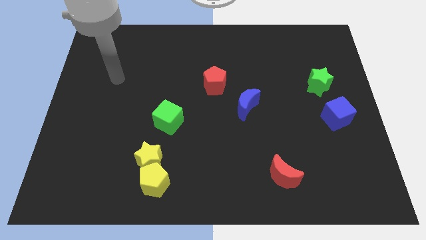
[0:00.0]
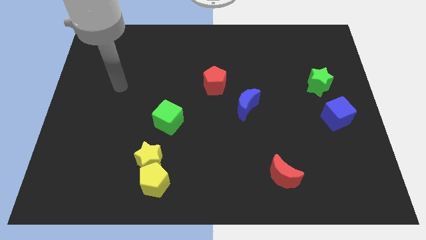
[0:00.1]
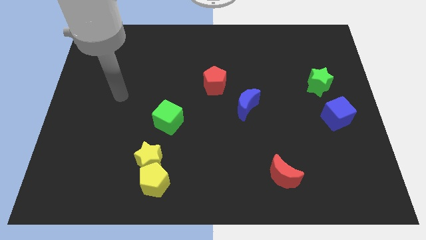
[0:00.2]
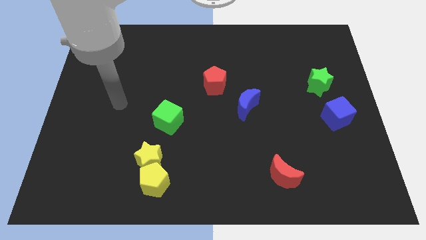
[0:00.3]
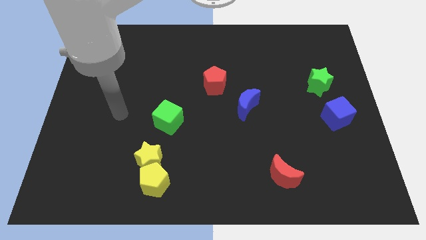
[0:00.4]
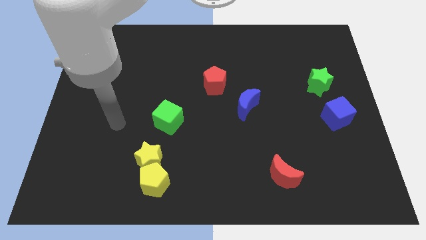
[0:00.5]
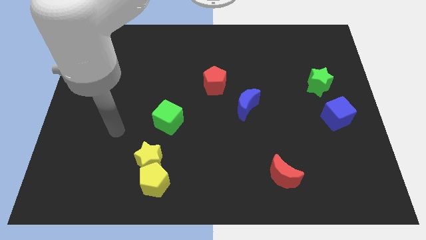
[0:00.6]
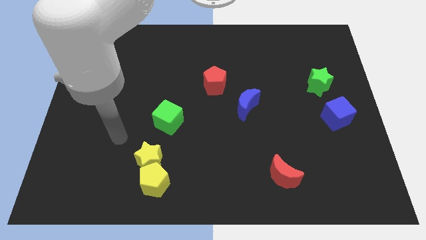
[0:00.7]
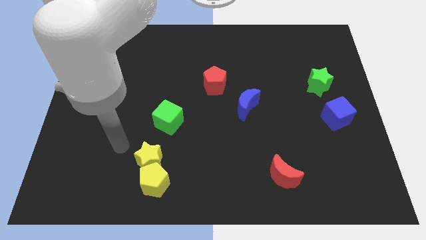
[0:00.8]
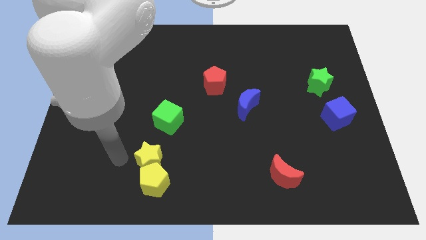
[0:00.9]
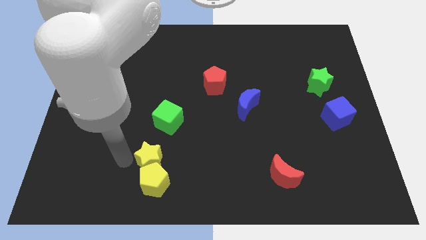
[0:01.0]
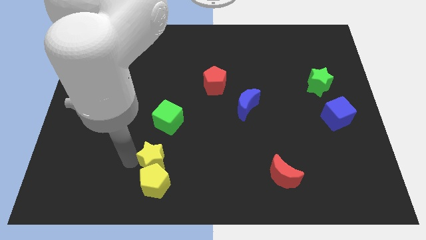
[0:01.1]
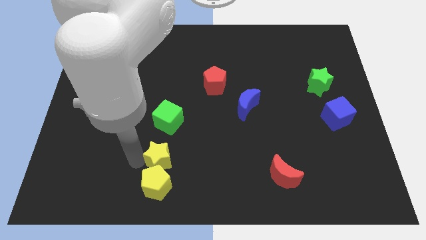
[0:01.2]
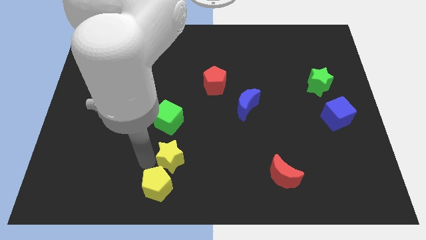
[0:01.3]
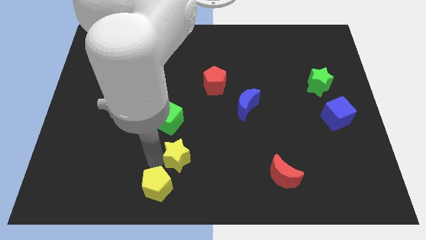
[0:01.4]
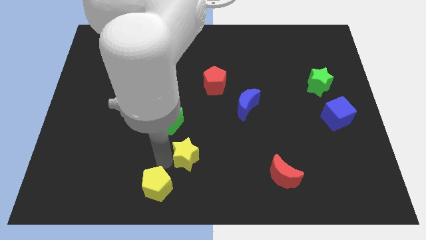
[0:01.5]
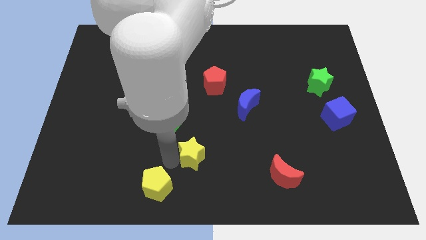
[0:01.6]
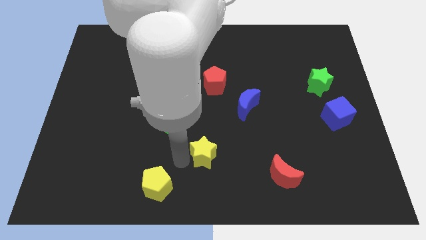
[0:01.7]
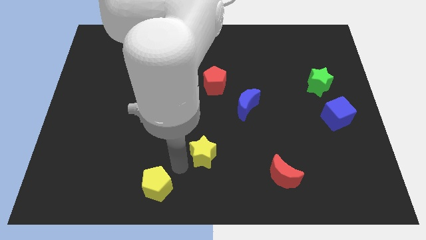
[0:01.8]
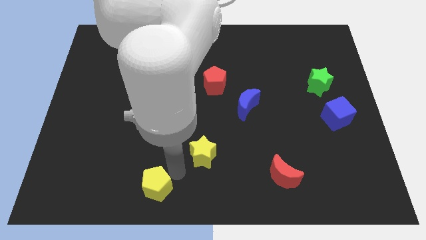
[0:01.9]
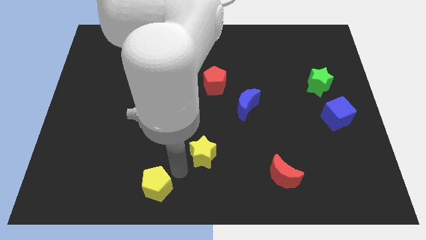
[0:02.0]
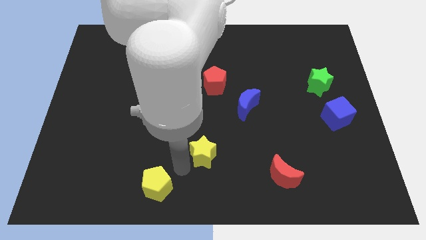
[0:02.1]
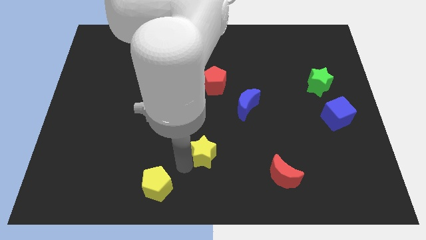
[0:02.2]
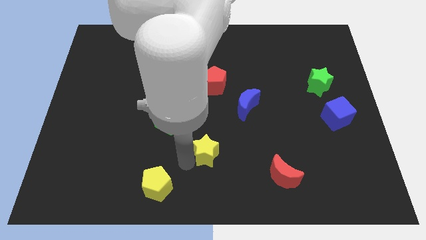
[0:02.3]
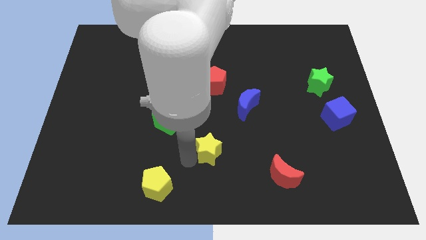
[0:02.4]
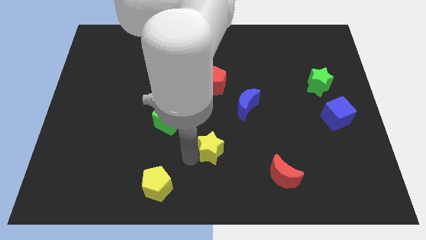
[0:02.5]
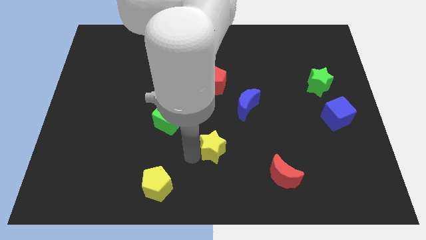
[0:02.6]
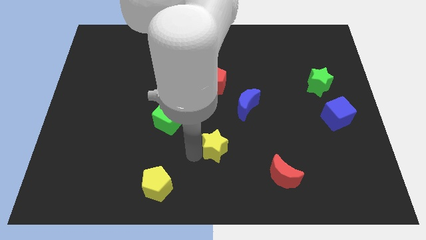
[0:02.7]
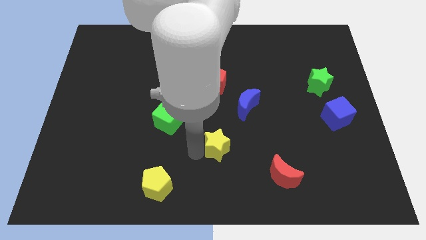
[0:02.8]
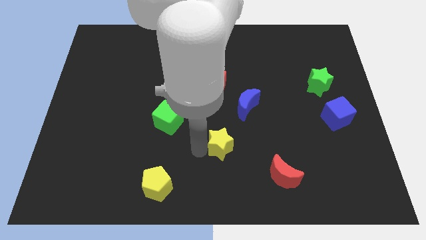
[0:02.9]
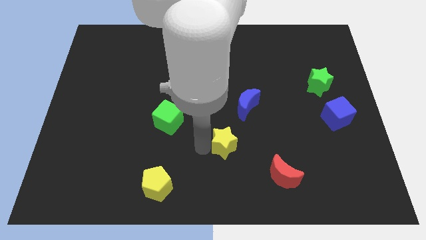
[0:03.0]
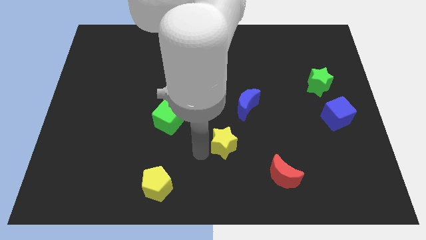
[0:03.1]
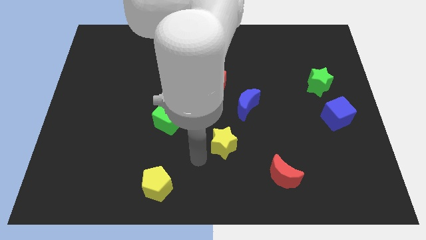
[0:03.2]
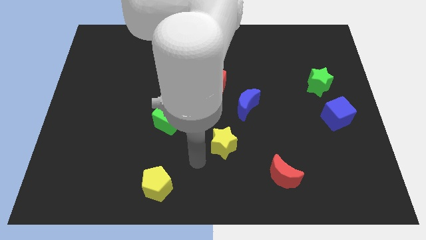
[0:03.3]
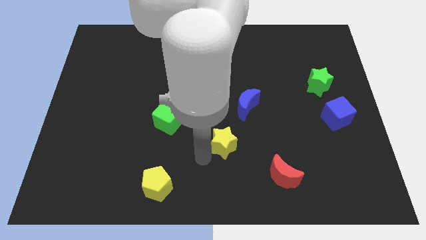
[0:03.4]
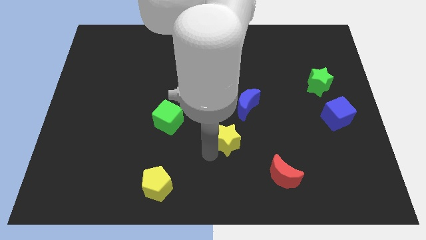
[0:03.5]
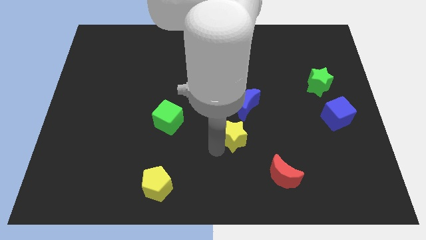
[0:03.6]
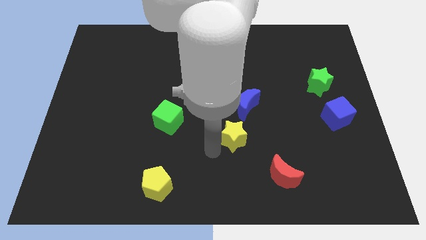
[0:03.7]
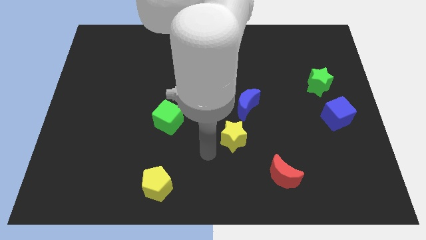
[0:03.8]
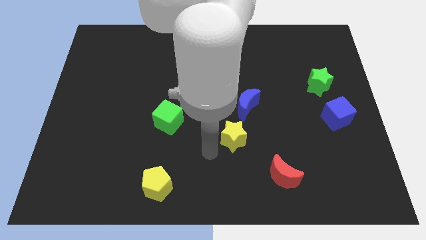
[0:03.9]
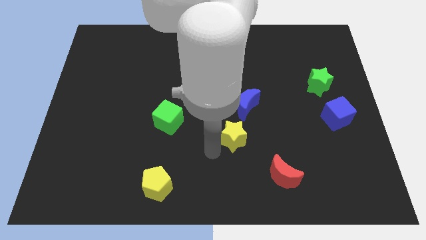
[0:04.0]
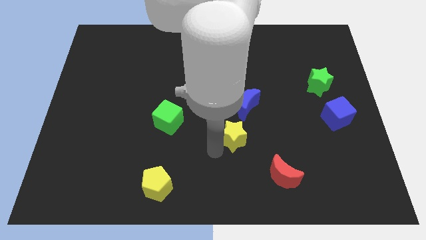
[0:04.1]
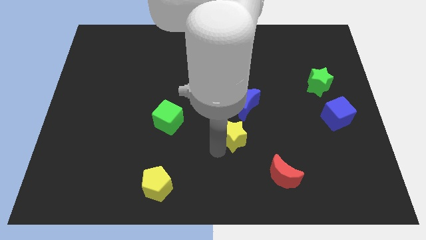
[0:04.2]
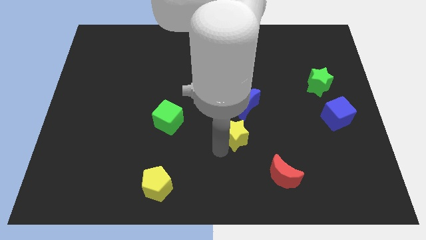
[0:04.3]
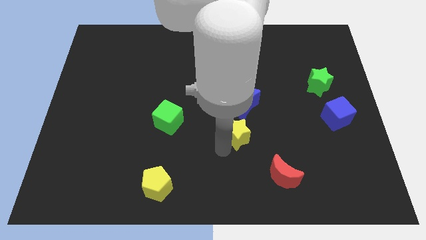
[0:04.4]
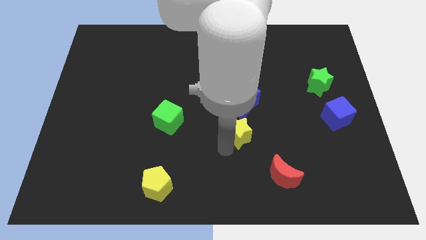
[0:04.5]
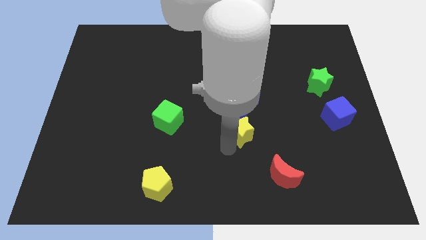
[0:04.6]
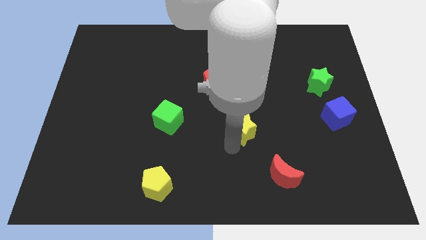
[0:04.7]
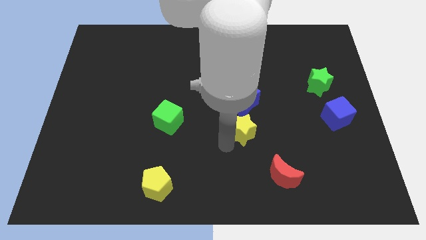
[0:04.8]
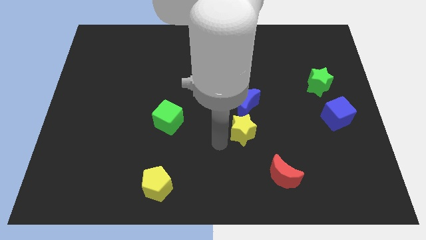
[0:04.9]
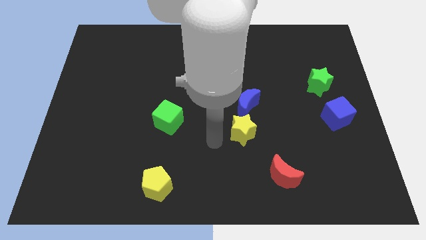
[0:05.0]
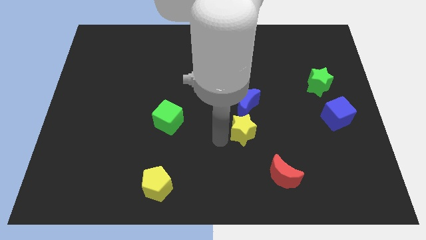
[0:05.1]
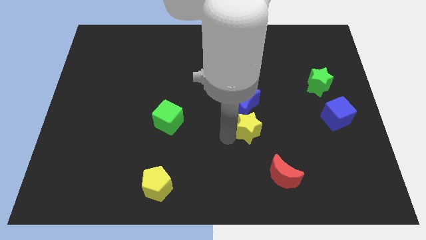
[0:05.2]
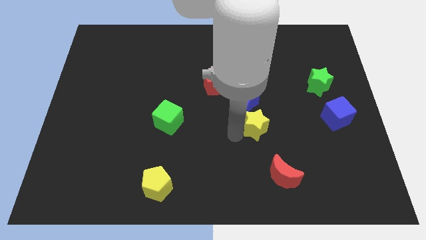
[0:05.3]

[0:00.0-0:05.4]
push the yellow star to the bottom right of the blue moon
